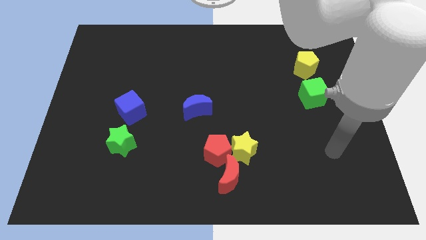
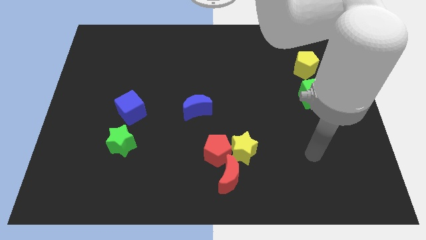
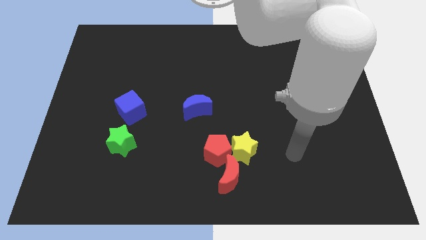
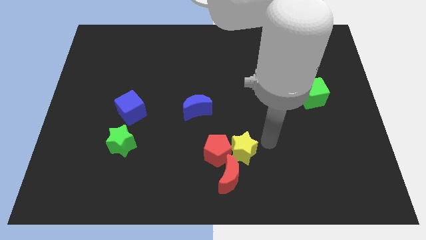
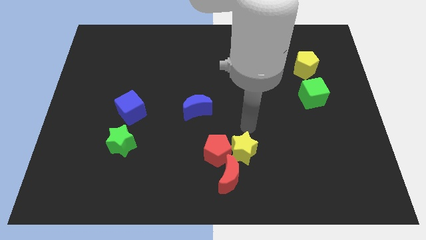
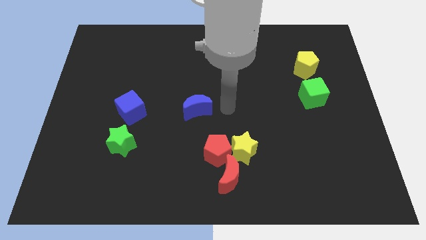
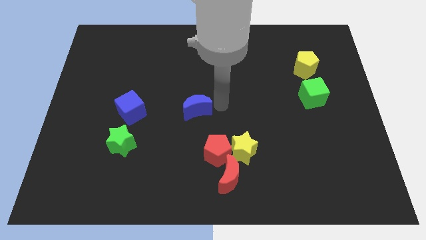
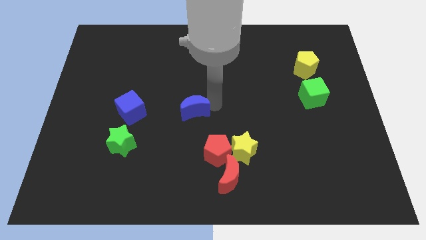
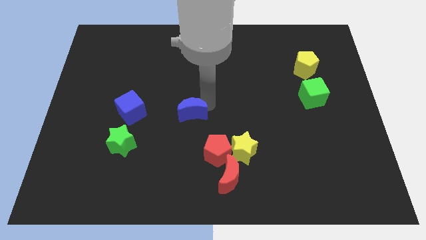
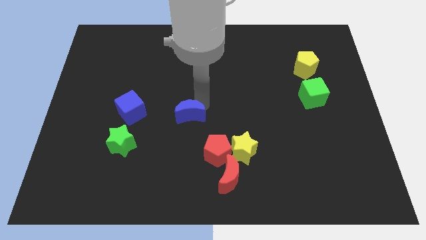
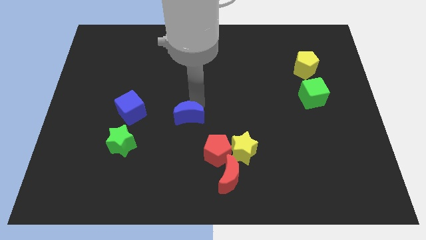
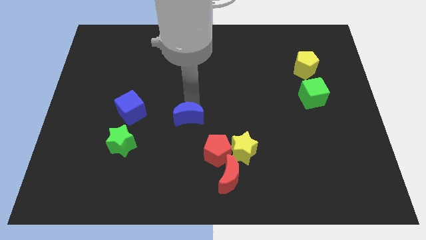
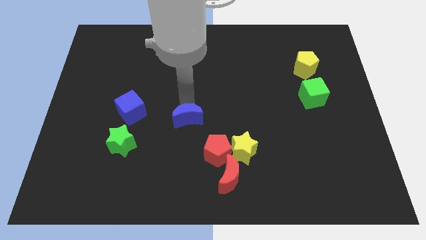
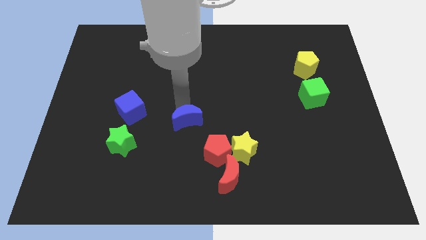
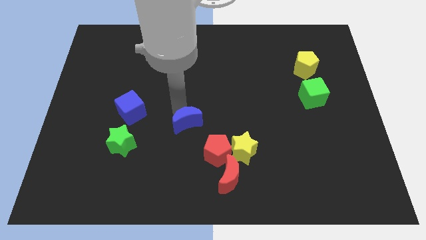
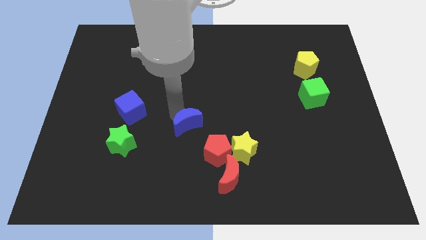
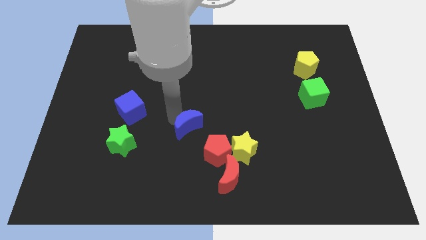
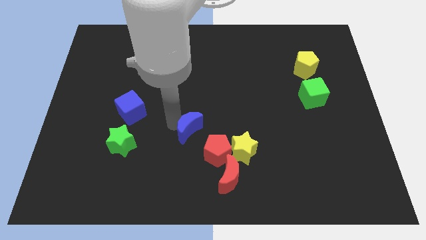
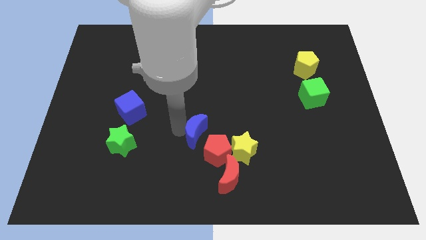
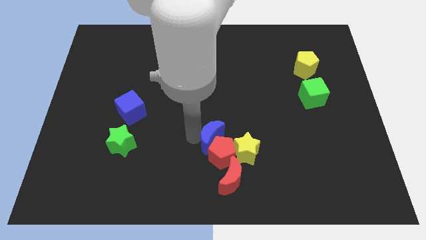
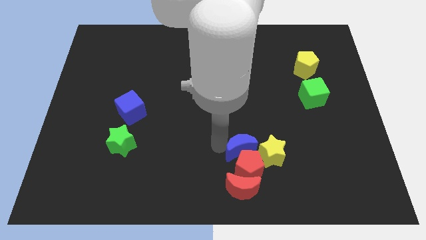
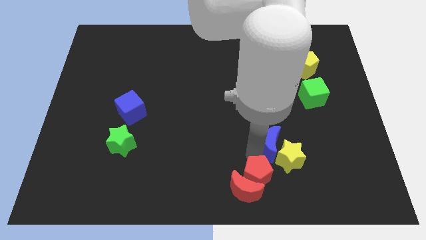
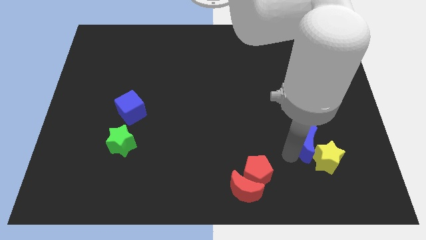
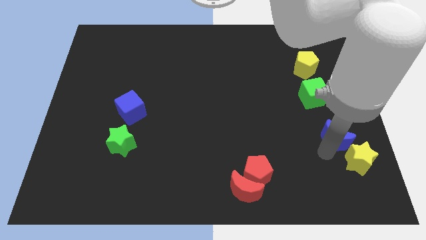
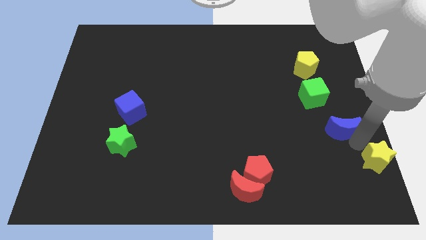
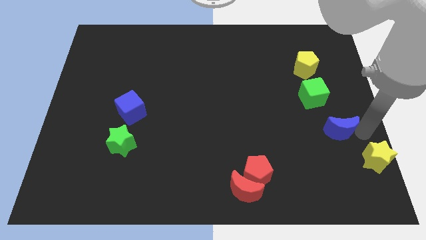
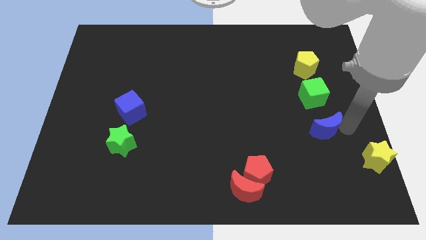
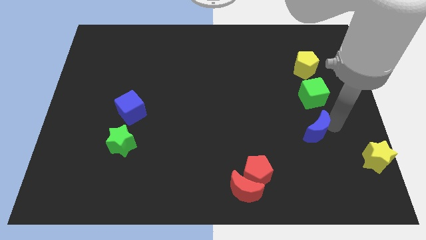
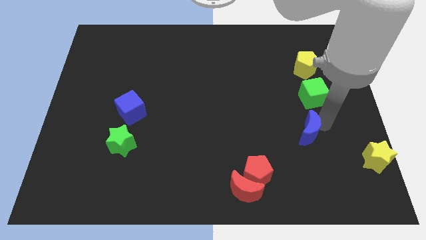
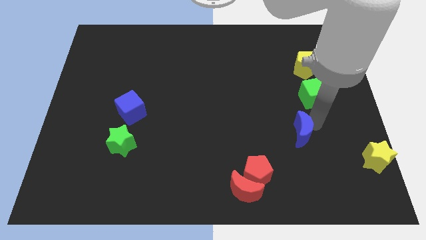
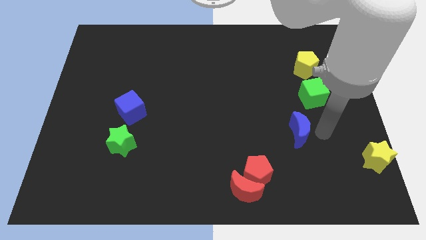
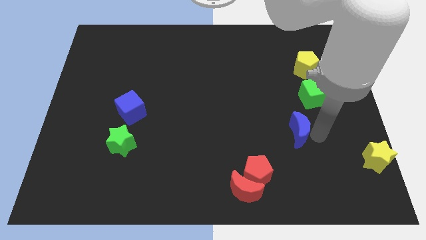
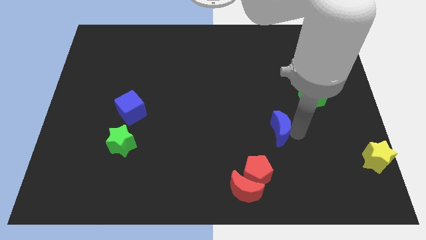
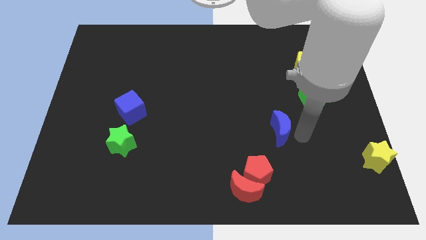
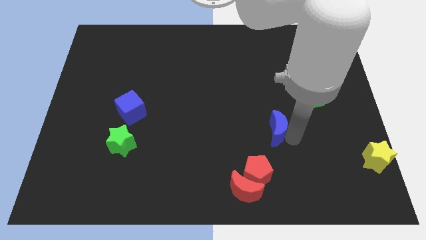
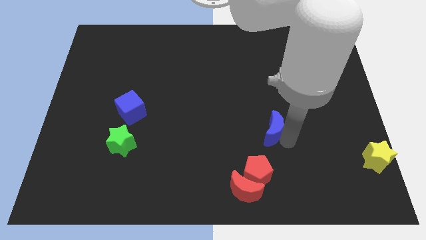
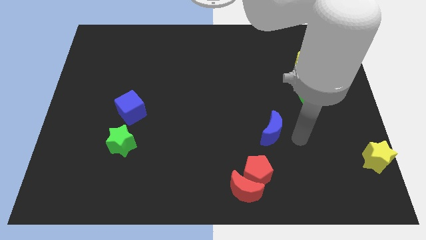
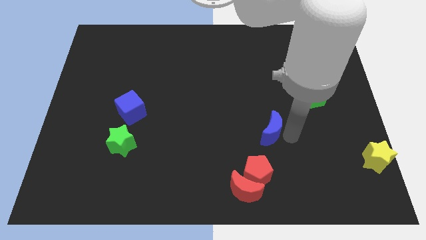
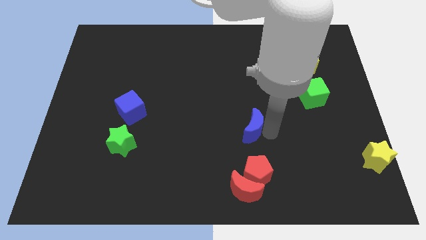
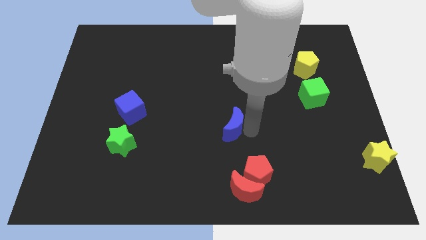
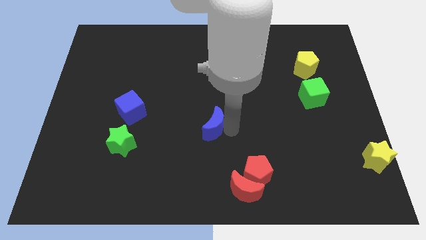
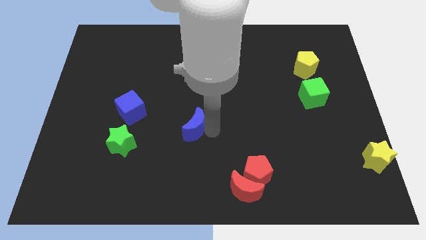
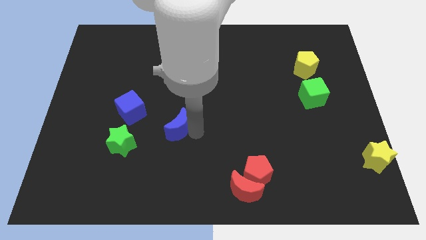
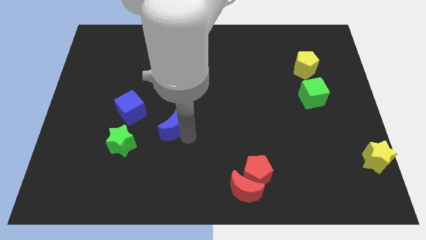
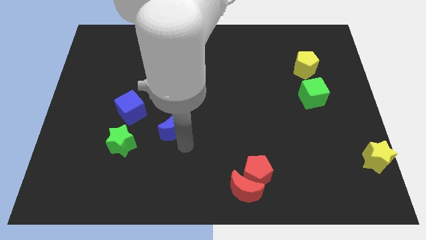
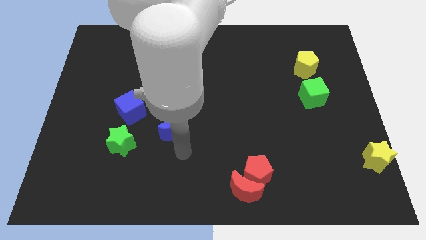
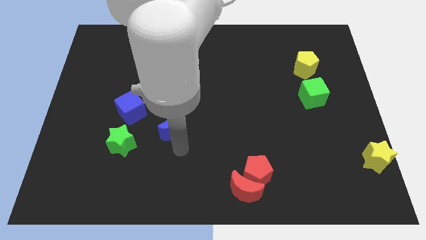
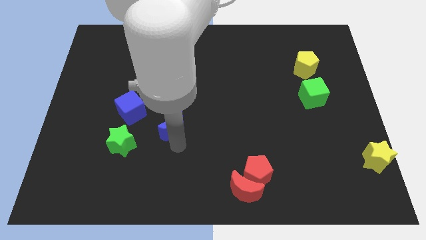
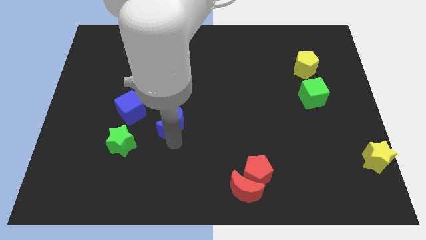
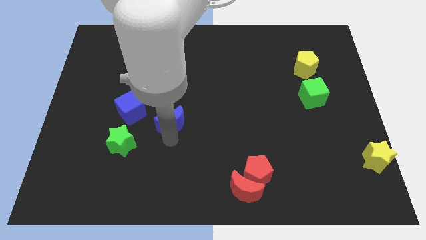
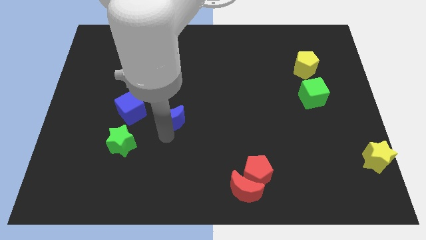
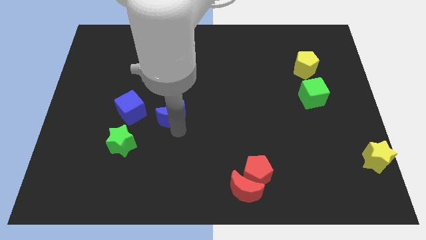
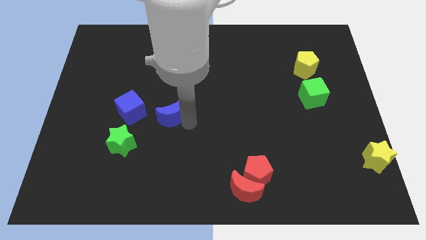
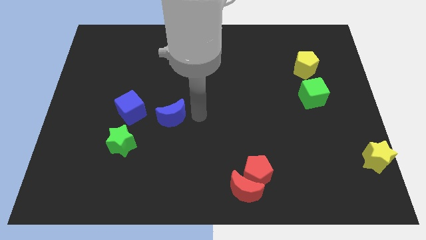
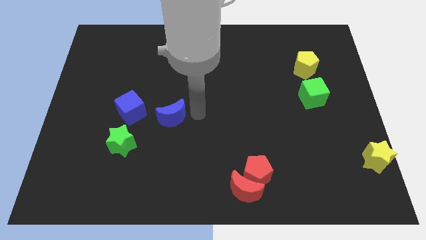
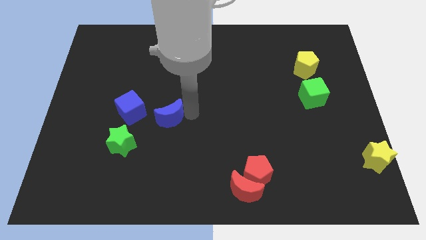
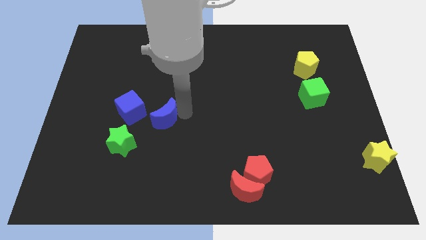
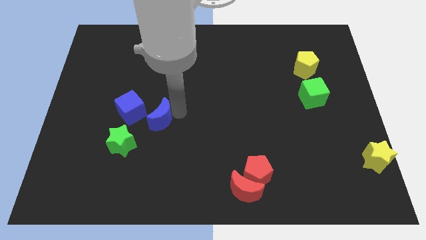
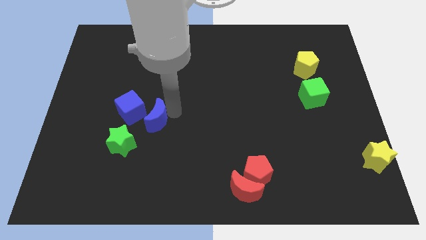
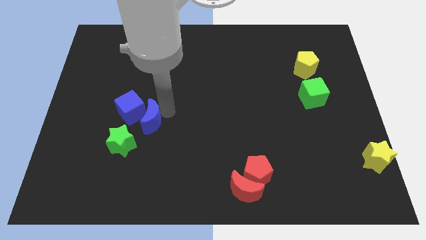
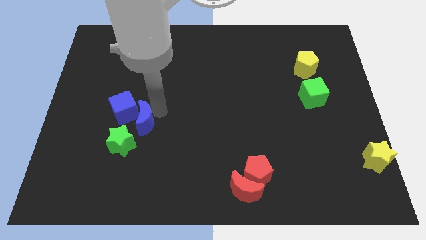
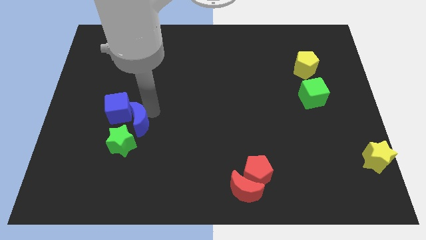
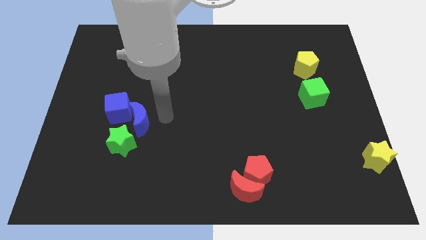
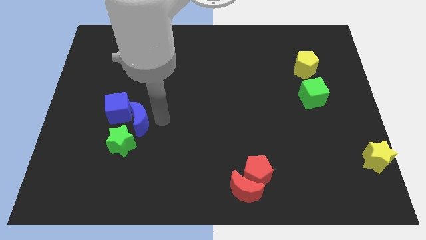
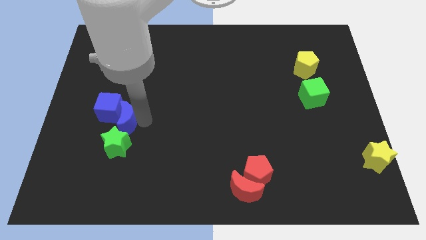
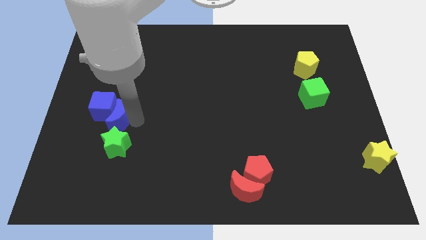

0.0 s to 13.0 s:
move the blue moon to the top left of the green star
